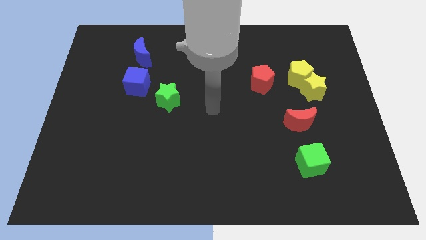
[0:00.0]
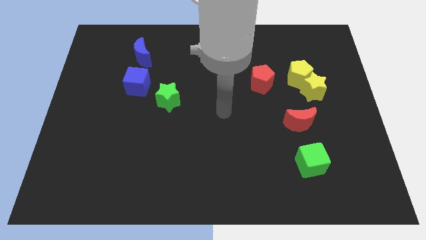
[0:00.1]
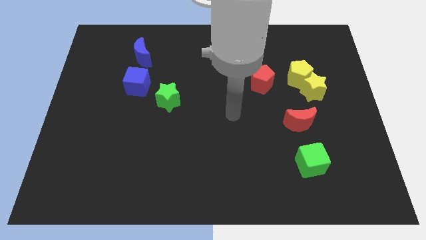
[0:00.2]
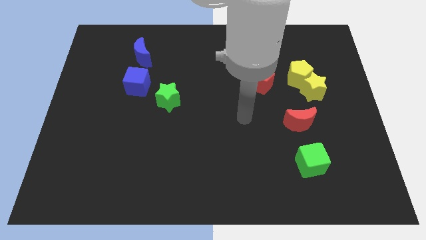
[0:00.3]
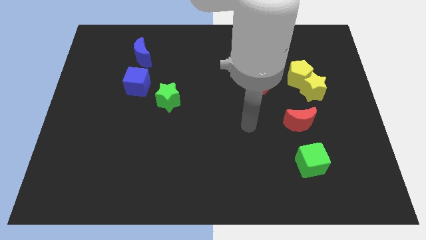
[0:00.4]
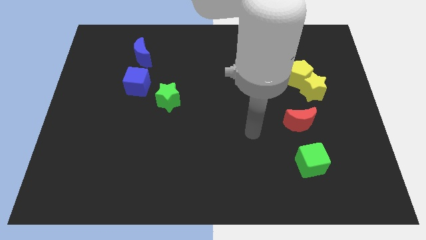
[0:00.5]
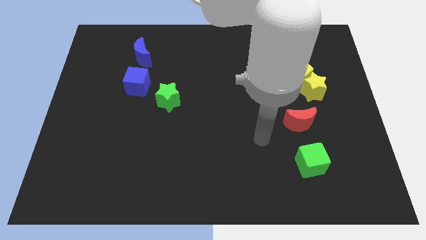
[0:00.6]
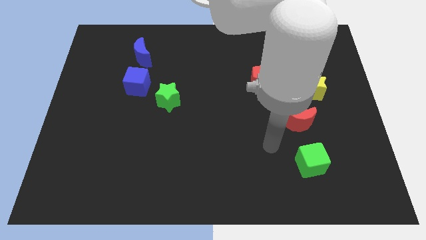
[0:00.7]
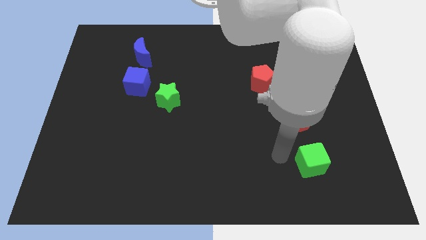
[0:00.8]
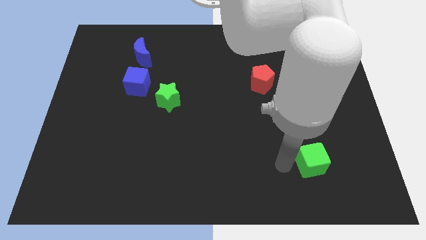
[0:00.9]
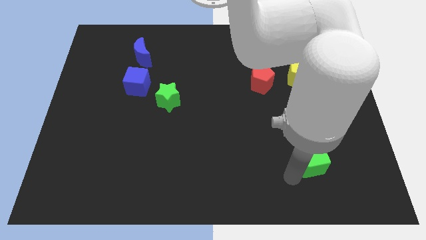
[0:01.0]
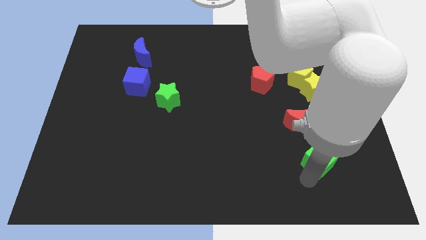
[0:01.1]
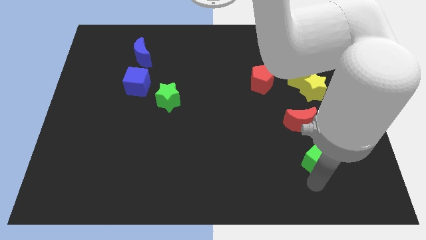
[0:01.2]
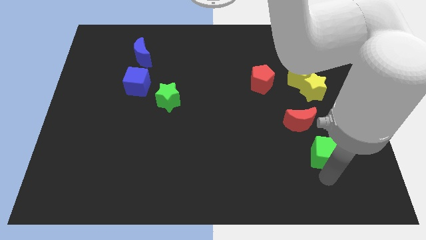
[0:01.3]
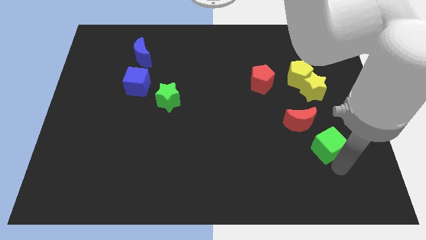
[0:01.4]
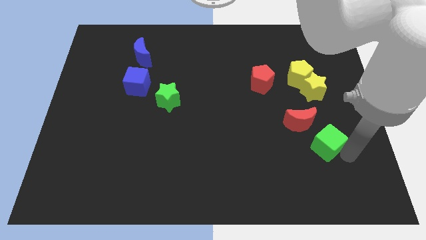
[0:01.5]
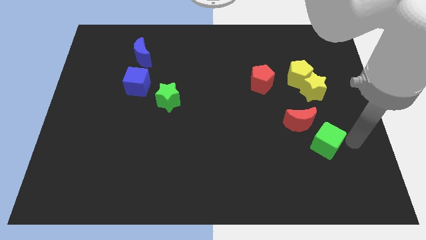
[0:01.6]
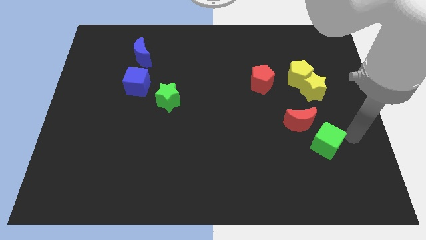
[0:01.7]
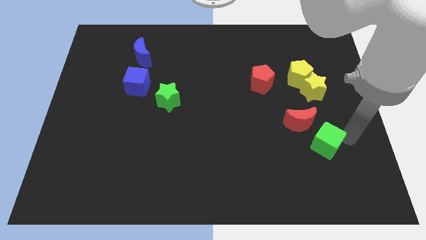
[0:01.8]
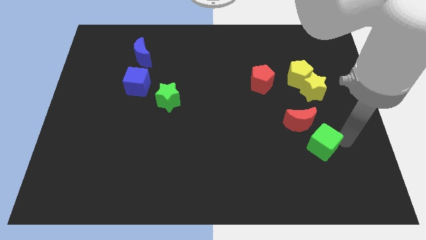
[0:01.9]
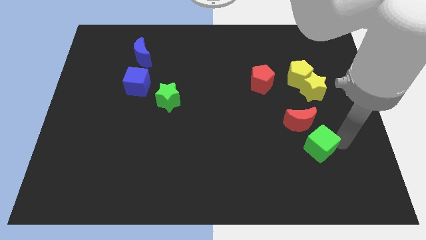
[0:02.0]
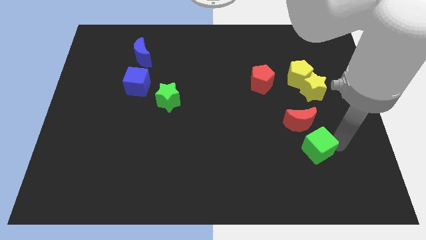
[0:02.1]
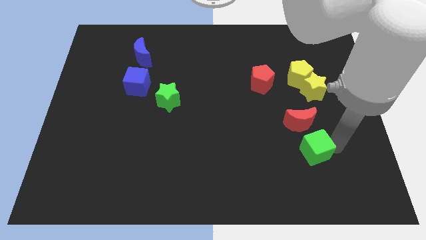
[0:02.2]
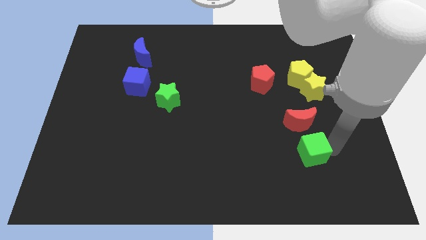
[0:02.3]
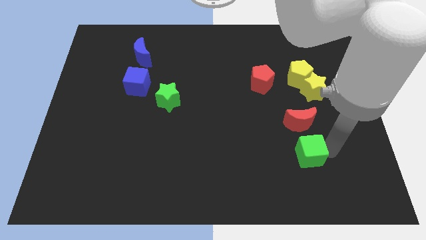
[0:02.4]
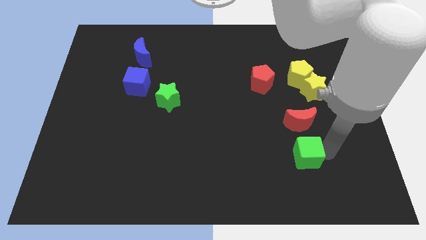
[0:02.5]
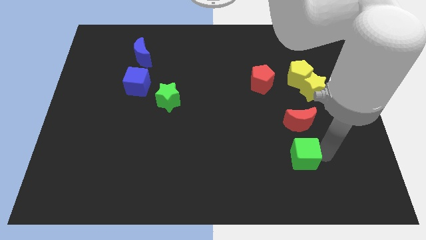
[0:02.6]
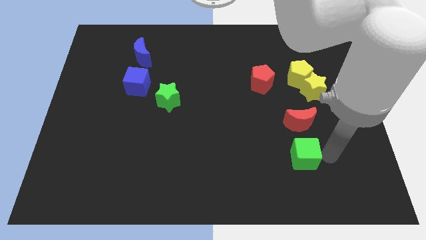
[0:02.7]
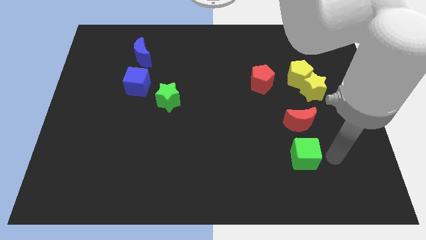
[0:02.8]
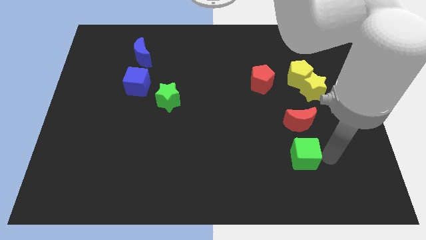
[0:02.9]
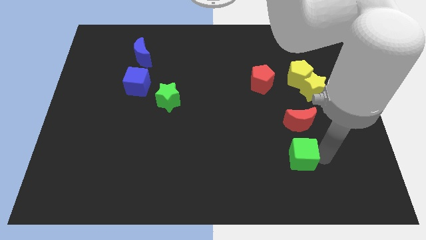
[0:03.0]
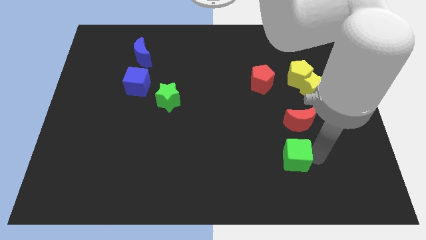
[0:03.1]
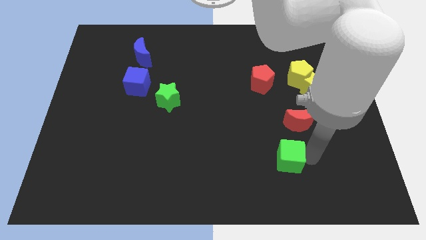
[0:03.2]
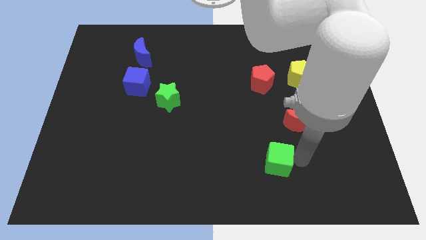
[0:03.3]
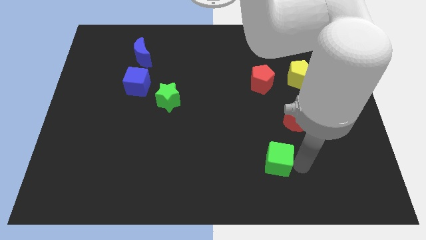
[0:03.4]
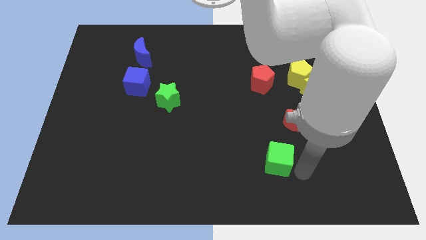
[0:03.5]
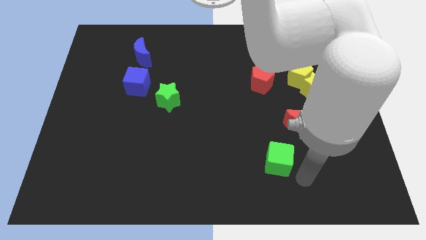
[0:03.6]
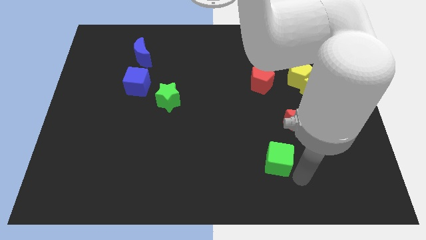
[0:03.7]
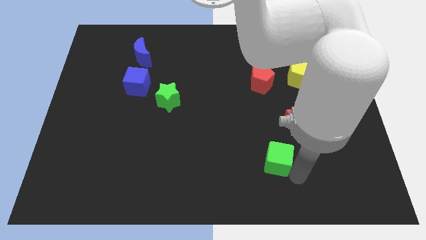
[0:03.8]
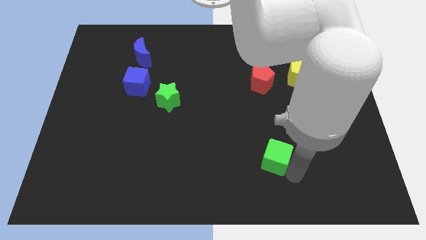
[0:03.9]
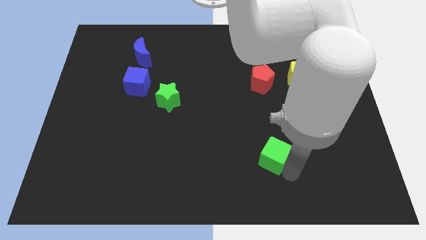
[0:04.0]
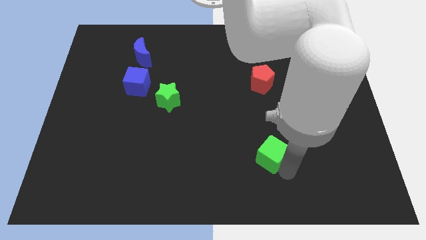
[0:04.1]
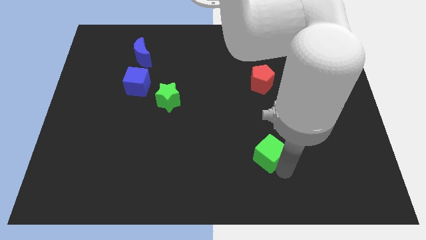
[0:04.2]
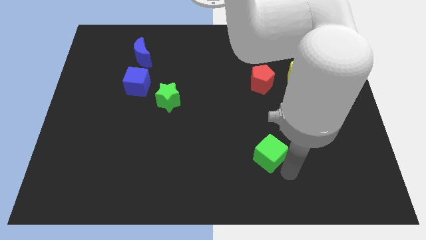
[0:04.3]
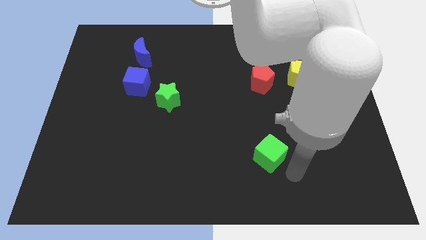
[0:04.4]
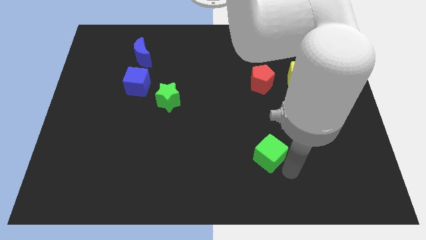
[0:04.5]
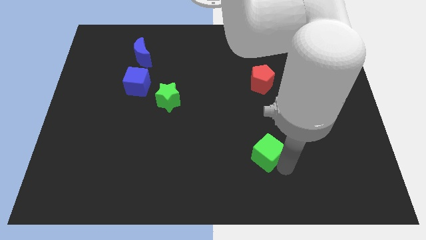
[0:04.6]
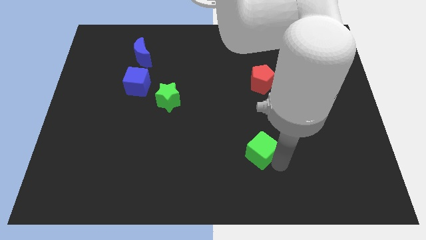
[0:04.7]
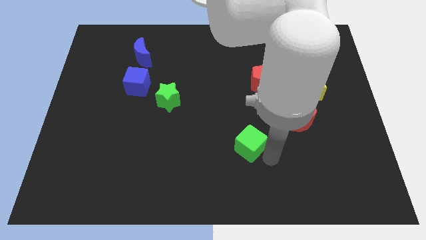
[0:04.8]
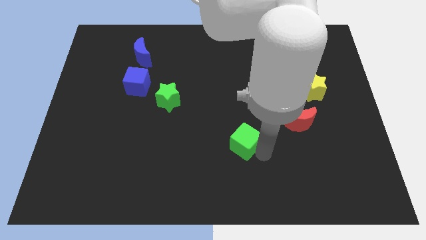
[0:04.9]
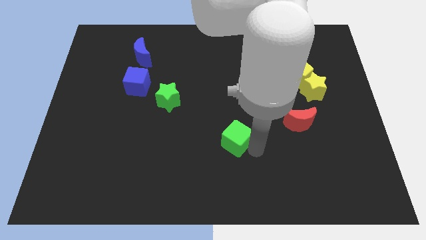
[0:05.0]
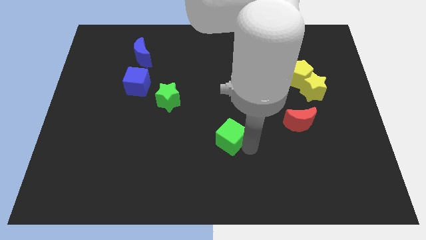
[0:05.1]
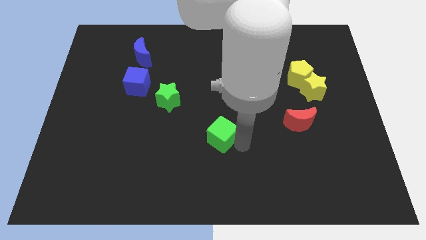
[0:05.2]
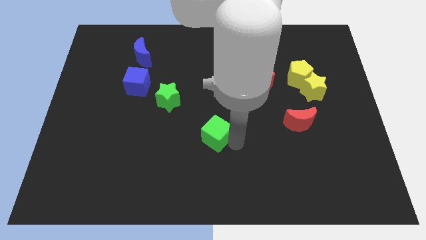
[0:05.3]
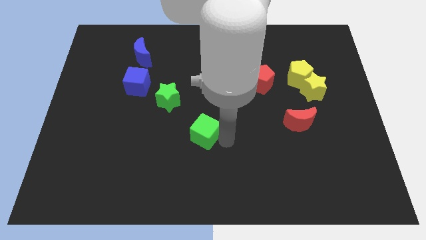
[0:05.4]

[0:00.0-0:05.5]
slide the green cube diagonally down and to the right of the green star
